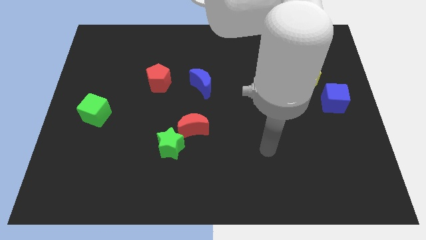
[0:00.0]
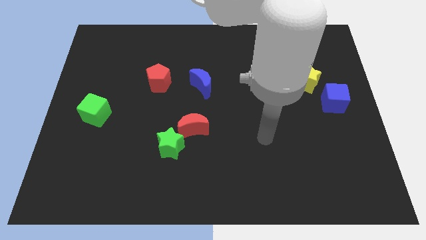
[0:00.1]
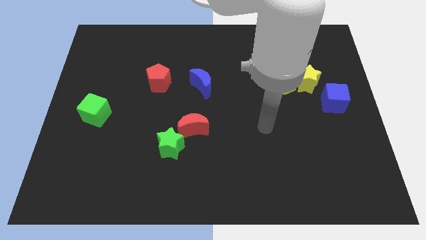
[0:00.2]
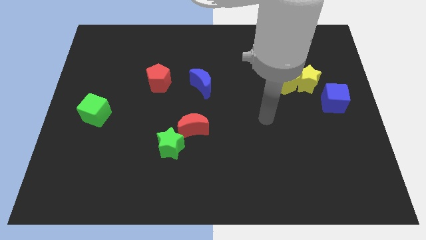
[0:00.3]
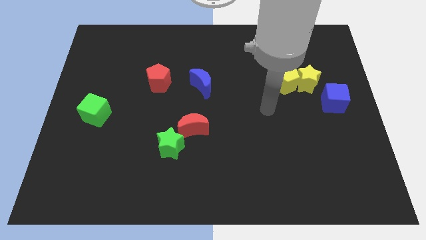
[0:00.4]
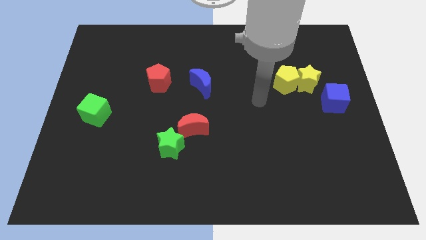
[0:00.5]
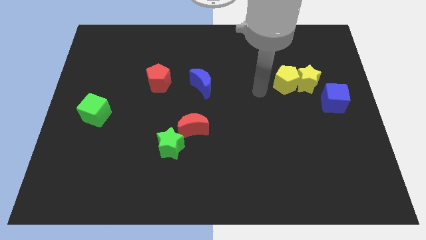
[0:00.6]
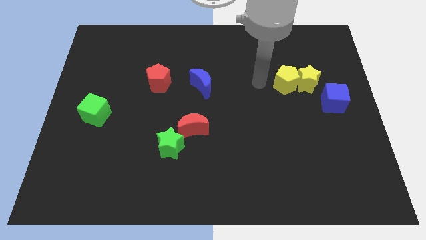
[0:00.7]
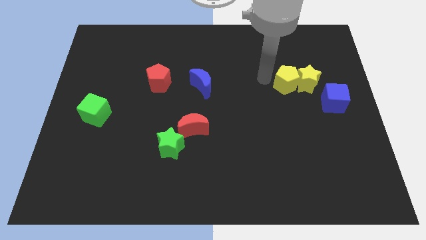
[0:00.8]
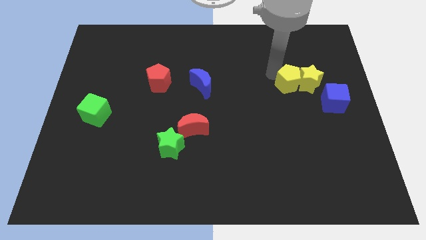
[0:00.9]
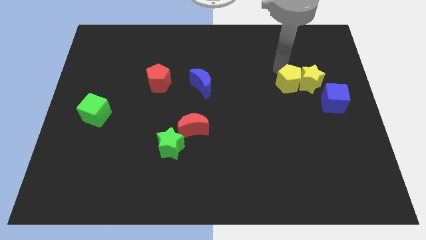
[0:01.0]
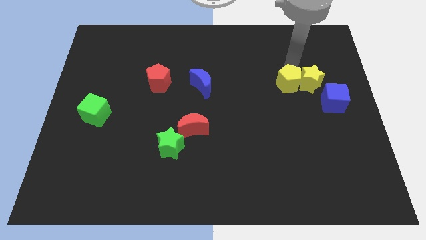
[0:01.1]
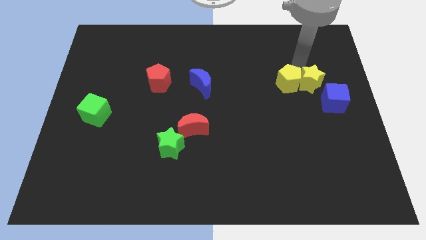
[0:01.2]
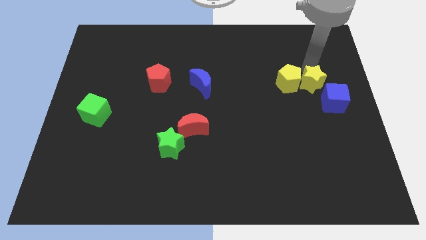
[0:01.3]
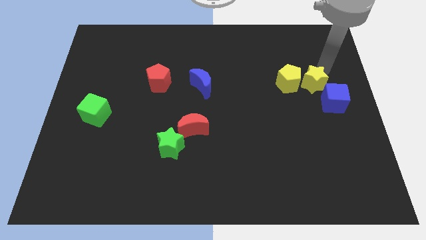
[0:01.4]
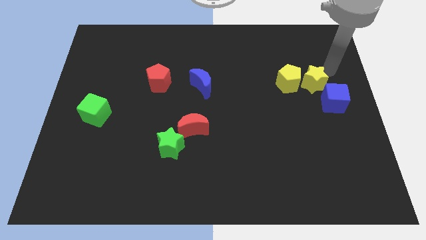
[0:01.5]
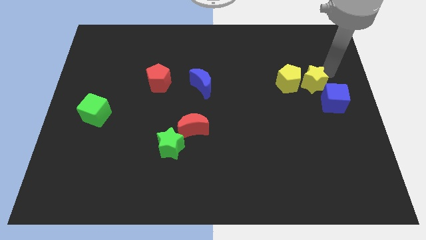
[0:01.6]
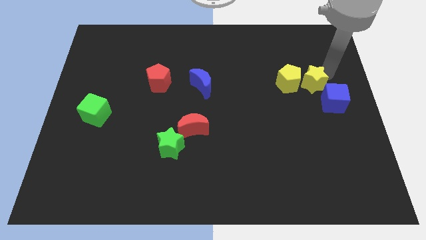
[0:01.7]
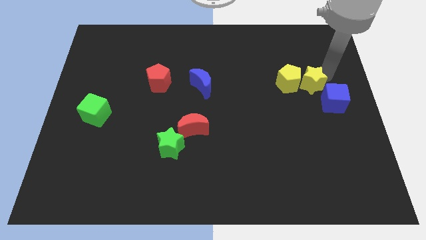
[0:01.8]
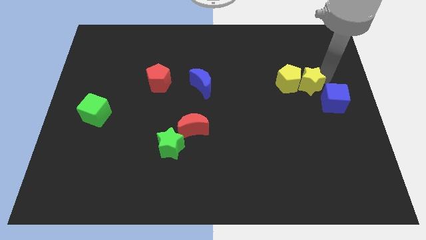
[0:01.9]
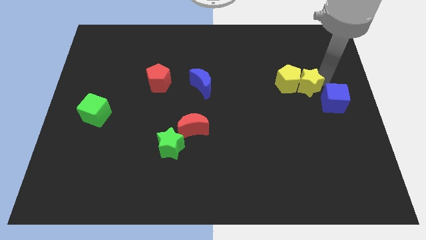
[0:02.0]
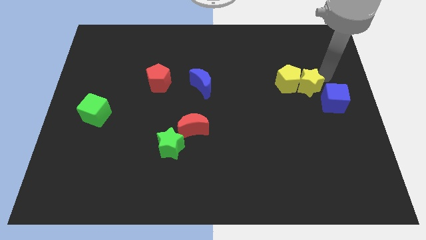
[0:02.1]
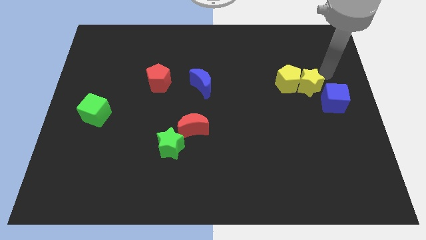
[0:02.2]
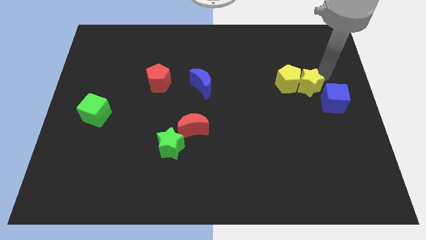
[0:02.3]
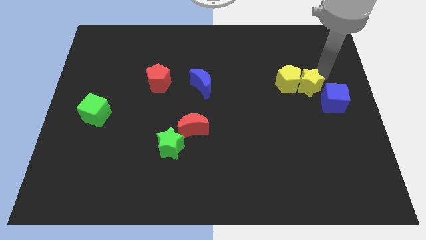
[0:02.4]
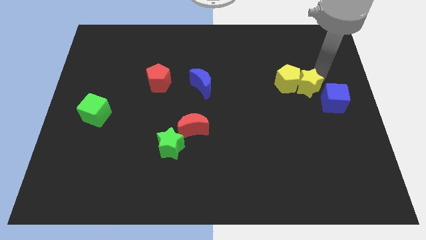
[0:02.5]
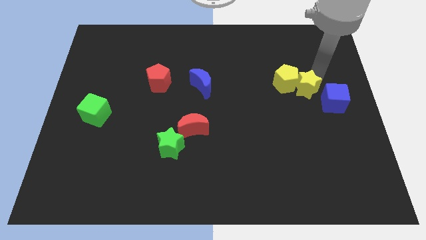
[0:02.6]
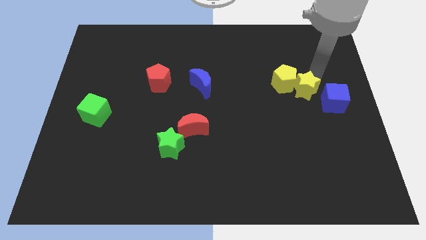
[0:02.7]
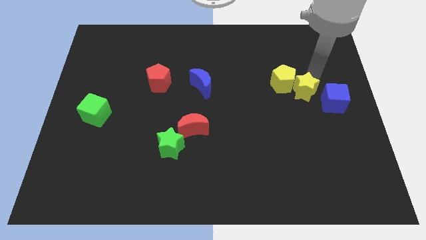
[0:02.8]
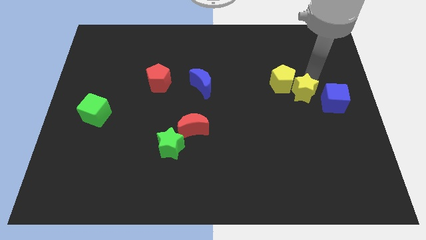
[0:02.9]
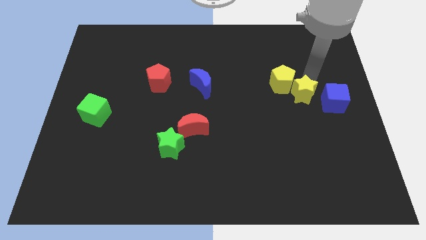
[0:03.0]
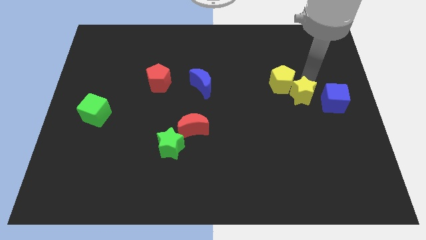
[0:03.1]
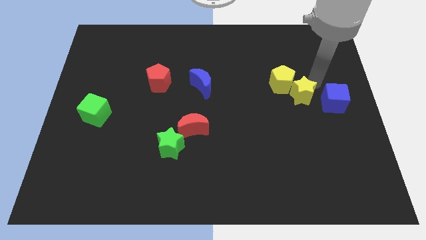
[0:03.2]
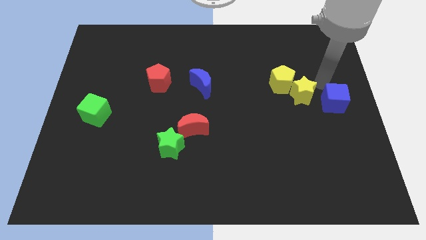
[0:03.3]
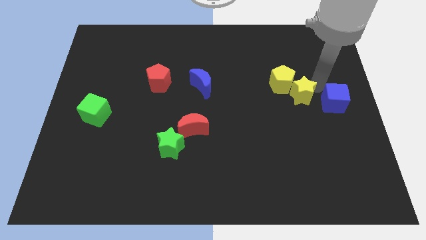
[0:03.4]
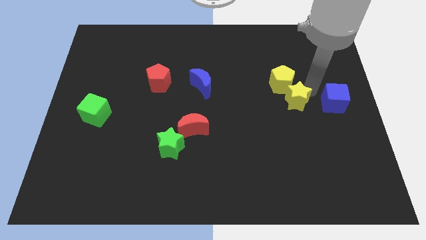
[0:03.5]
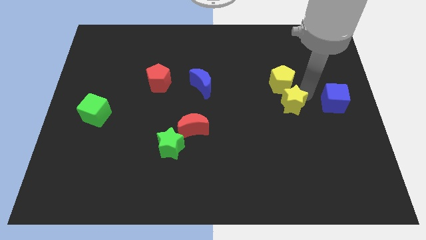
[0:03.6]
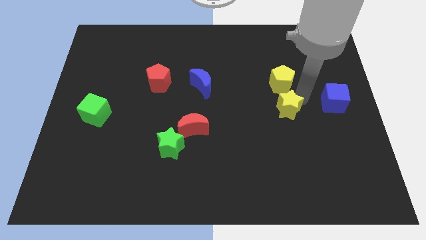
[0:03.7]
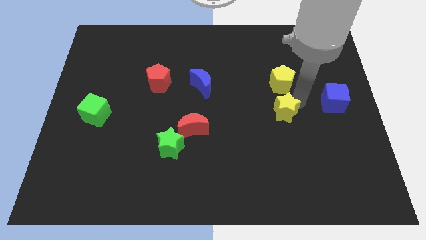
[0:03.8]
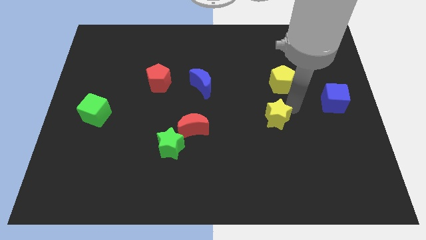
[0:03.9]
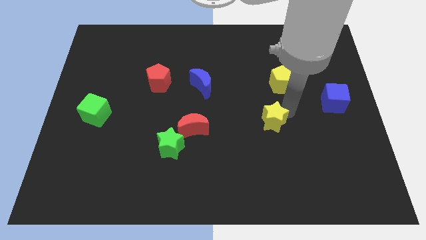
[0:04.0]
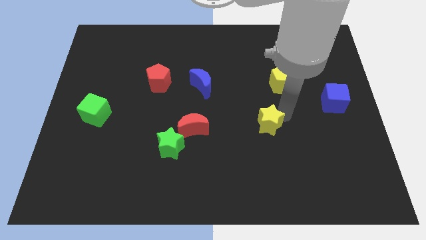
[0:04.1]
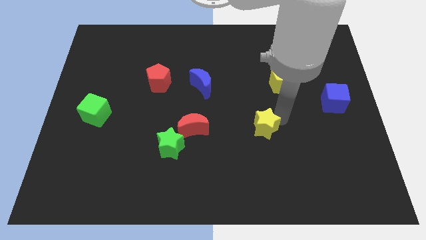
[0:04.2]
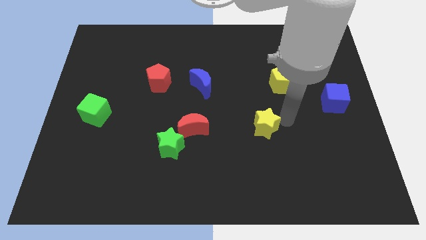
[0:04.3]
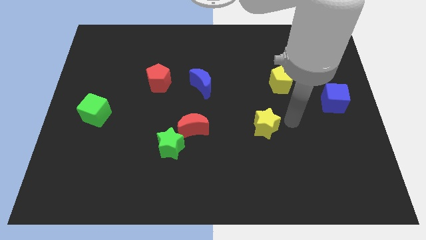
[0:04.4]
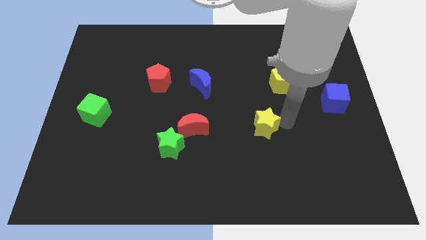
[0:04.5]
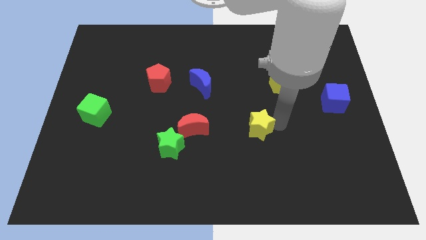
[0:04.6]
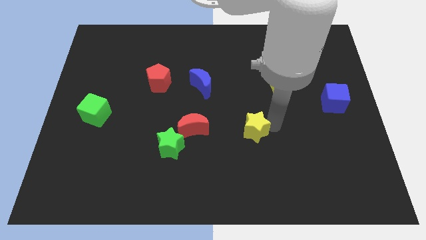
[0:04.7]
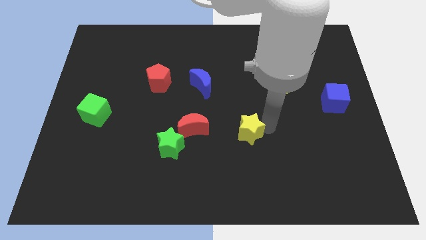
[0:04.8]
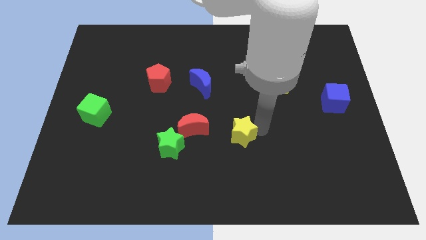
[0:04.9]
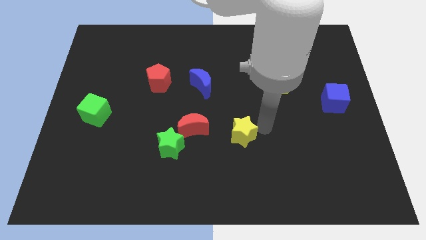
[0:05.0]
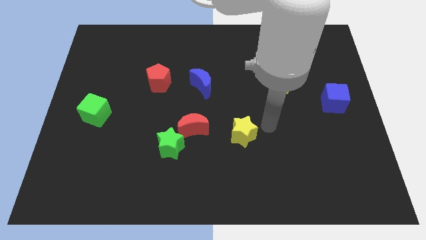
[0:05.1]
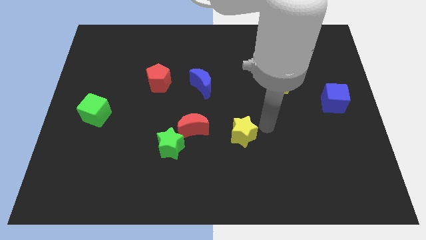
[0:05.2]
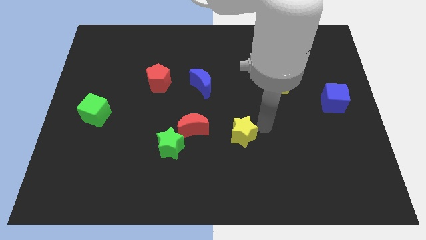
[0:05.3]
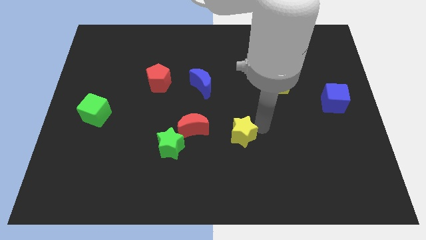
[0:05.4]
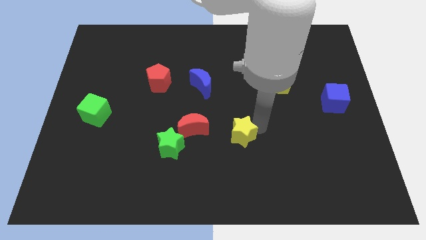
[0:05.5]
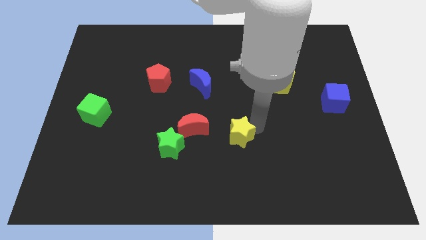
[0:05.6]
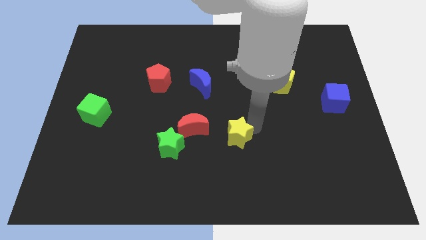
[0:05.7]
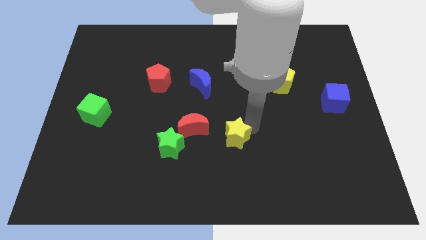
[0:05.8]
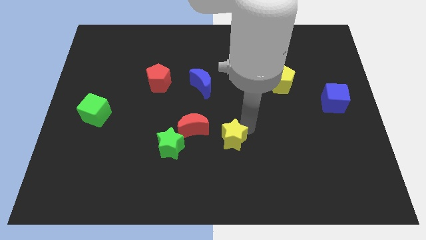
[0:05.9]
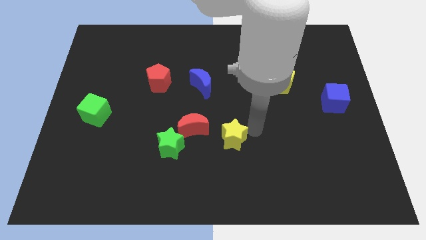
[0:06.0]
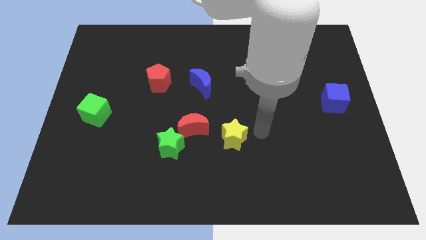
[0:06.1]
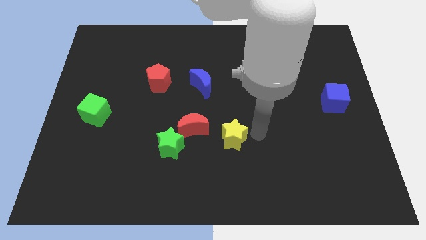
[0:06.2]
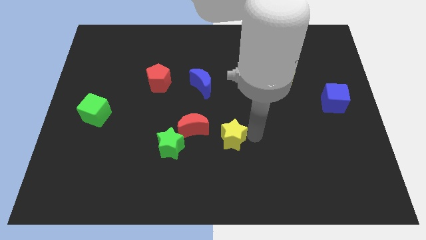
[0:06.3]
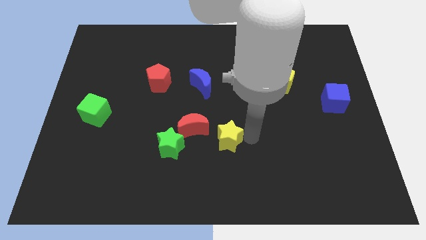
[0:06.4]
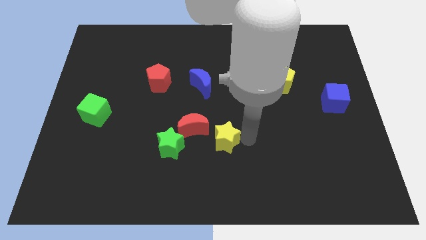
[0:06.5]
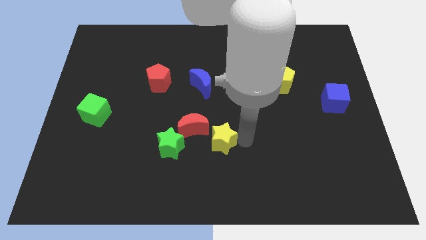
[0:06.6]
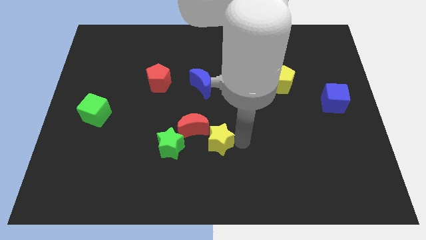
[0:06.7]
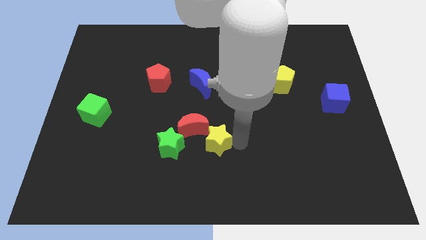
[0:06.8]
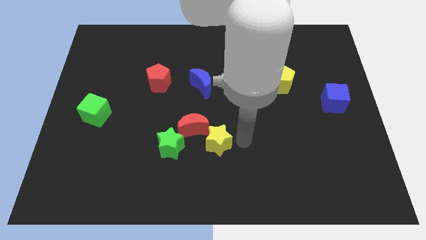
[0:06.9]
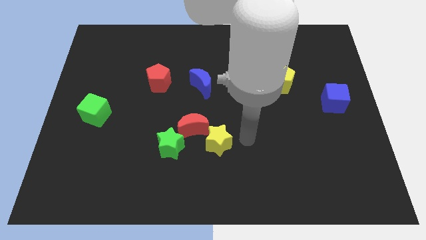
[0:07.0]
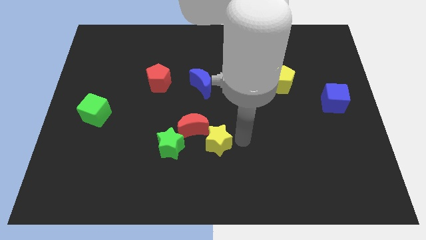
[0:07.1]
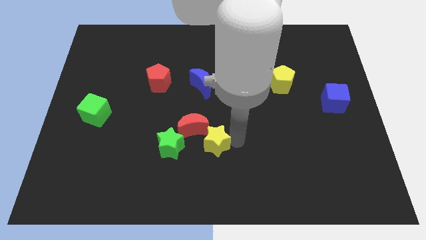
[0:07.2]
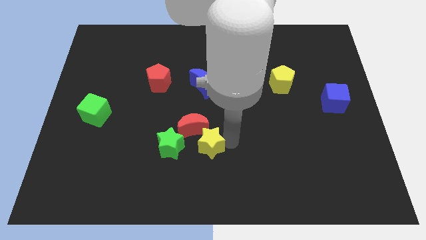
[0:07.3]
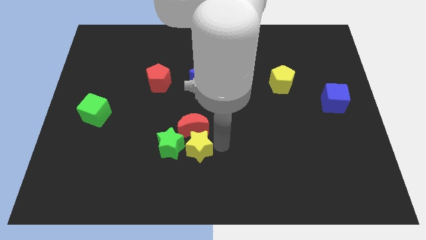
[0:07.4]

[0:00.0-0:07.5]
push the yellow star close to the green star
